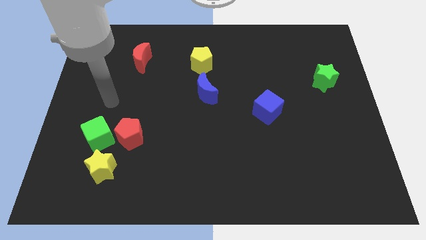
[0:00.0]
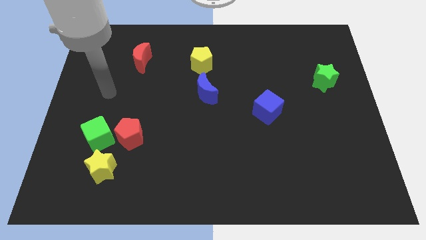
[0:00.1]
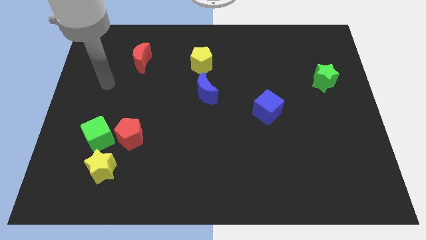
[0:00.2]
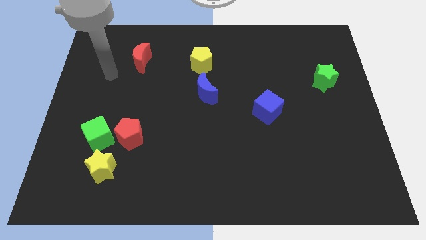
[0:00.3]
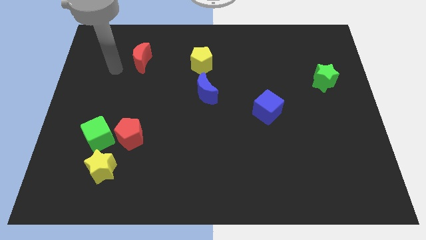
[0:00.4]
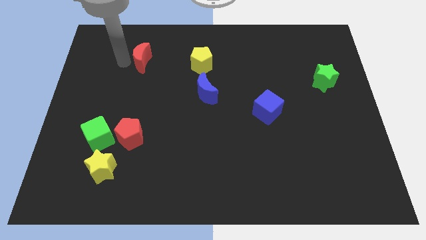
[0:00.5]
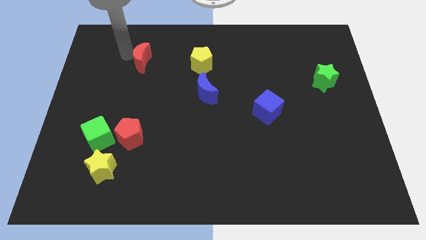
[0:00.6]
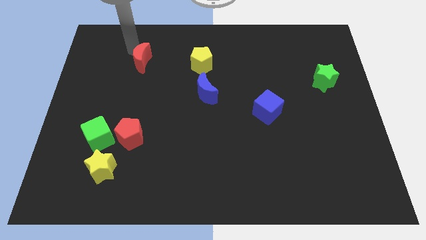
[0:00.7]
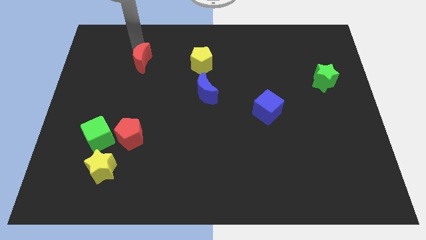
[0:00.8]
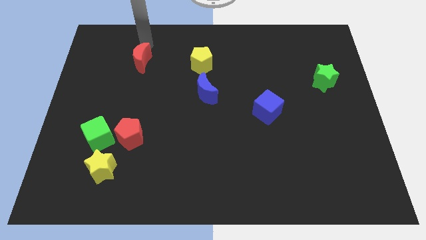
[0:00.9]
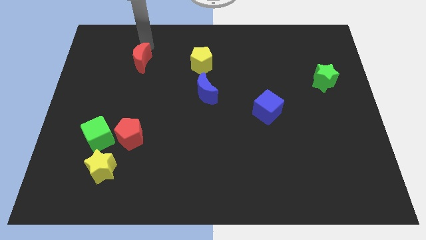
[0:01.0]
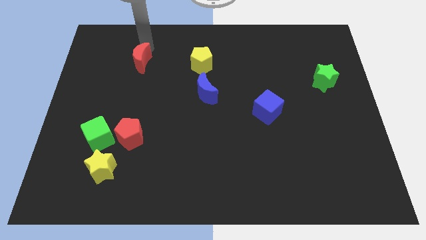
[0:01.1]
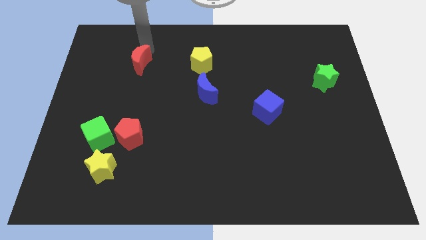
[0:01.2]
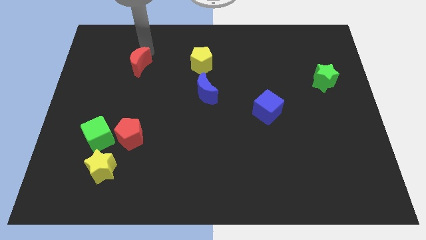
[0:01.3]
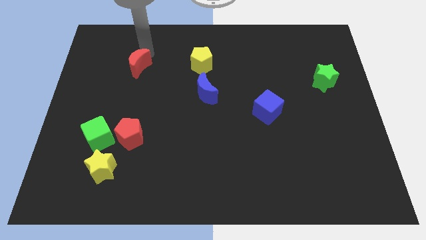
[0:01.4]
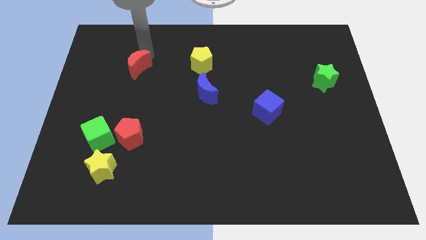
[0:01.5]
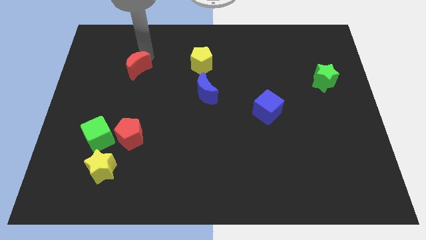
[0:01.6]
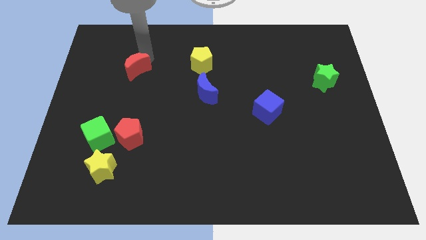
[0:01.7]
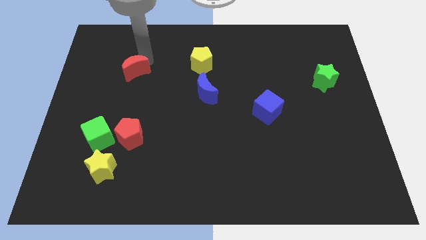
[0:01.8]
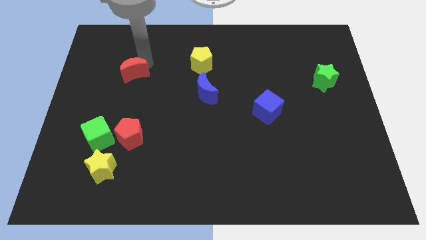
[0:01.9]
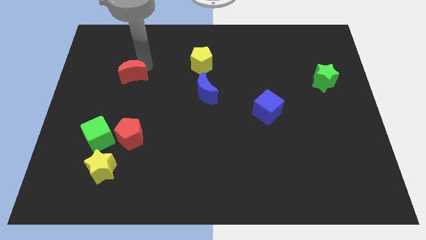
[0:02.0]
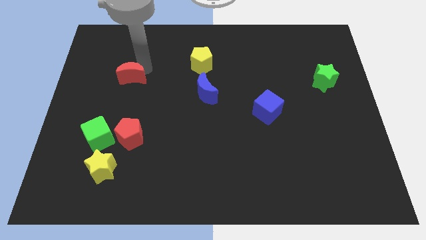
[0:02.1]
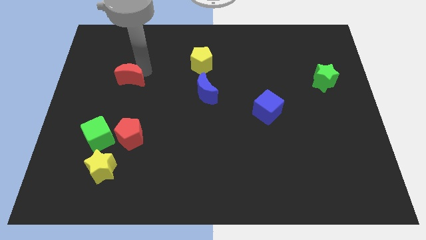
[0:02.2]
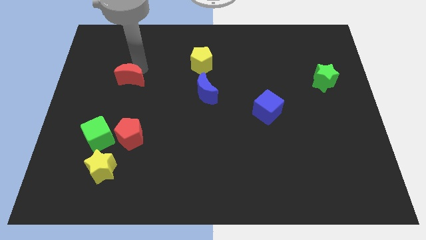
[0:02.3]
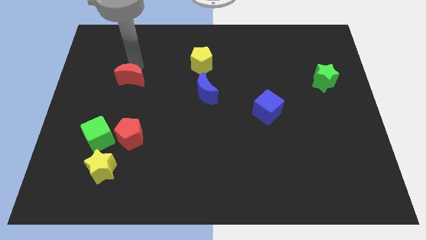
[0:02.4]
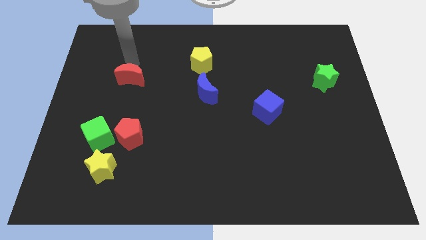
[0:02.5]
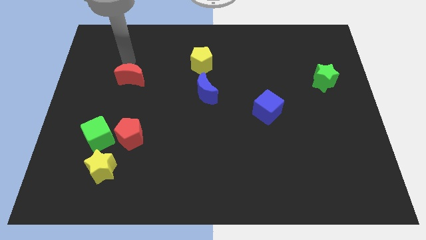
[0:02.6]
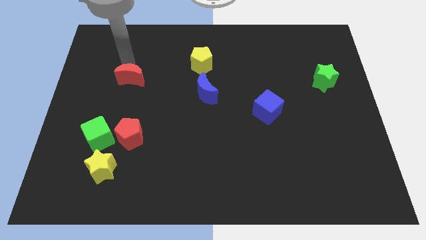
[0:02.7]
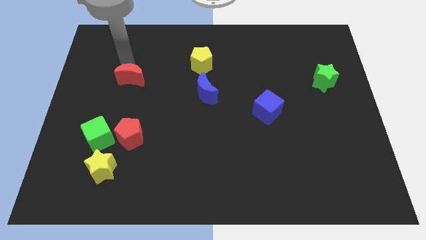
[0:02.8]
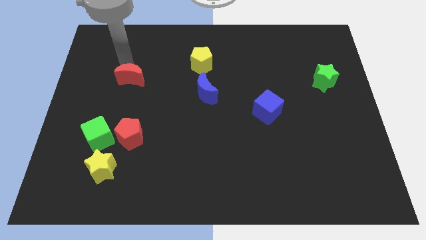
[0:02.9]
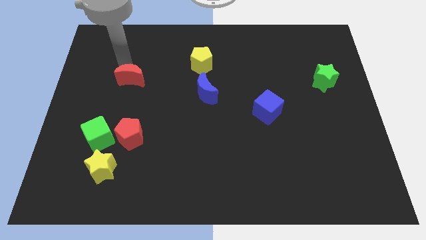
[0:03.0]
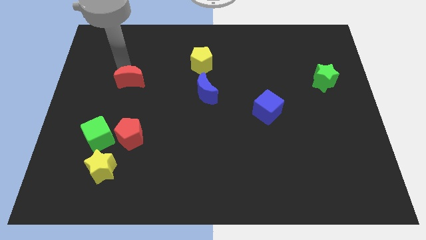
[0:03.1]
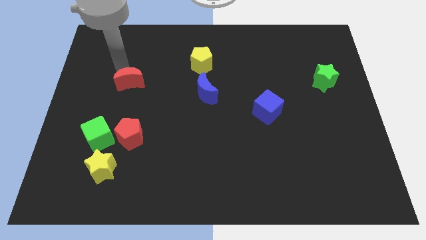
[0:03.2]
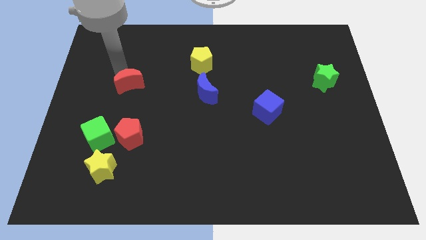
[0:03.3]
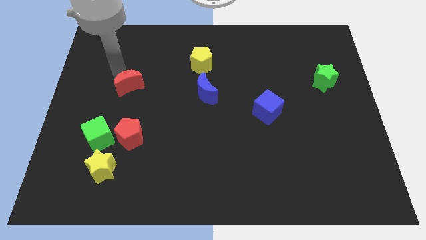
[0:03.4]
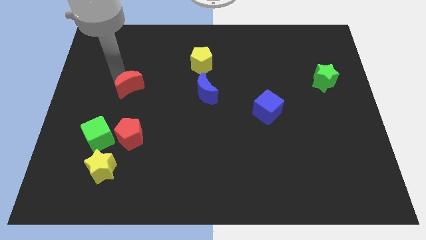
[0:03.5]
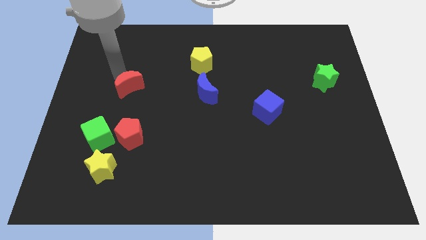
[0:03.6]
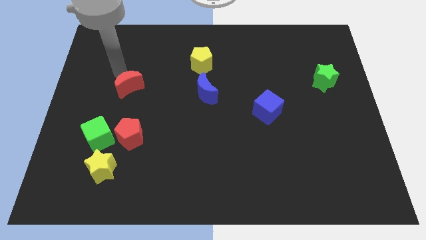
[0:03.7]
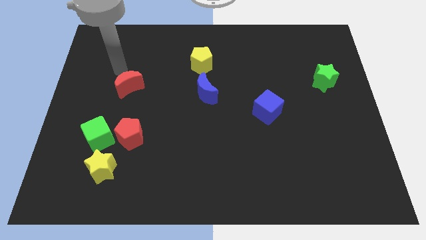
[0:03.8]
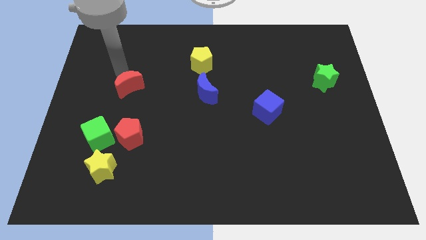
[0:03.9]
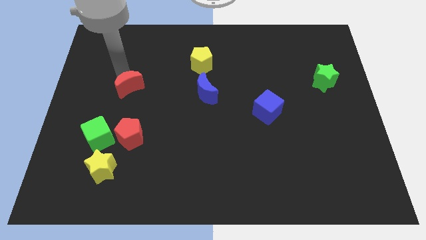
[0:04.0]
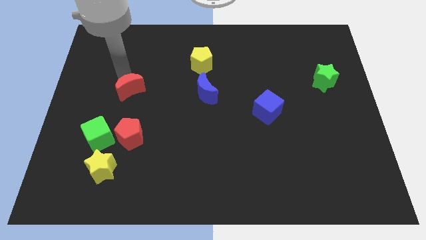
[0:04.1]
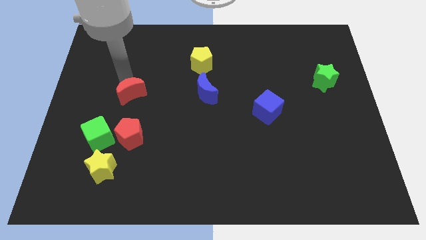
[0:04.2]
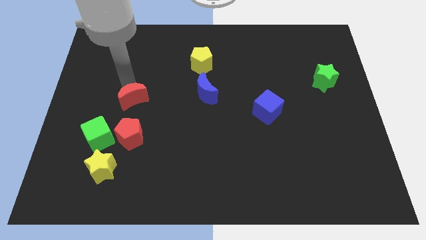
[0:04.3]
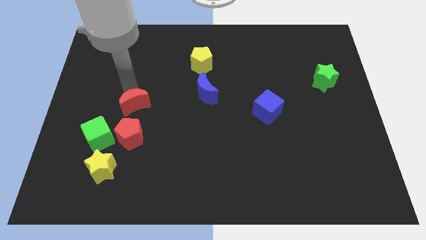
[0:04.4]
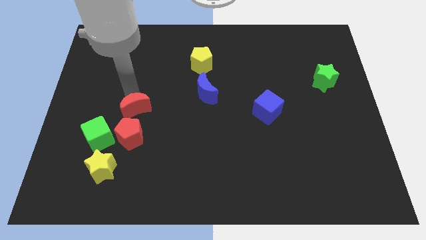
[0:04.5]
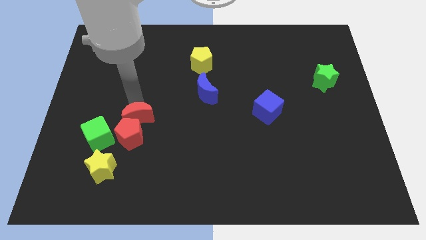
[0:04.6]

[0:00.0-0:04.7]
put the red moon to the red pentagon

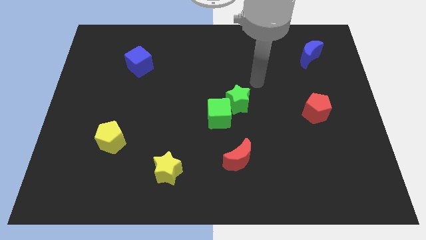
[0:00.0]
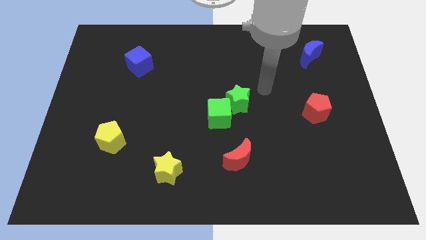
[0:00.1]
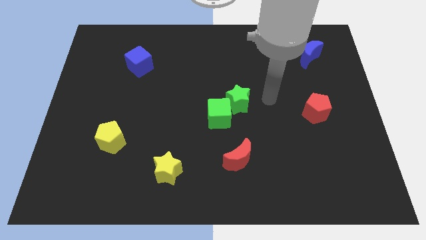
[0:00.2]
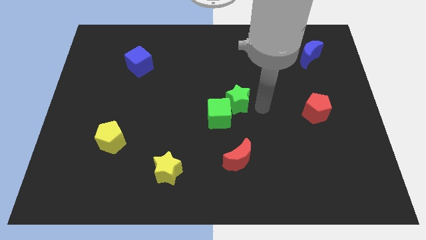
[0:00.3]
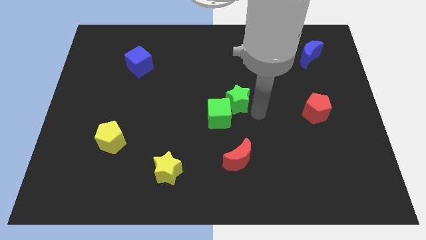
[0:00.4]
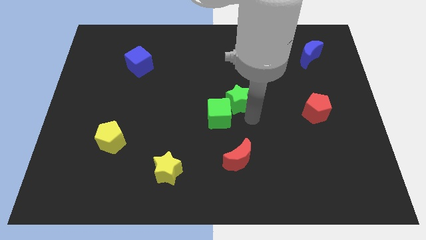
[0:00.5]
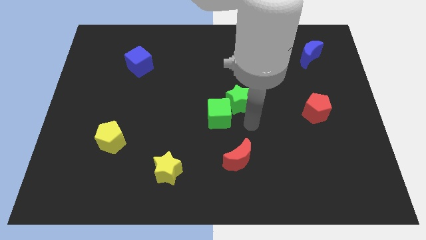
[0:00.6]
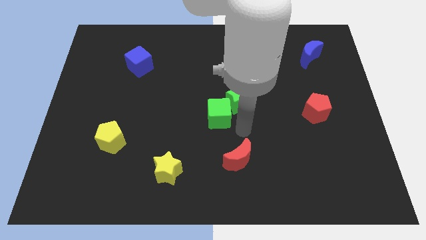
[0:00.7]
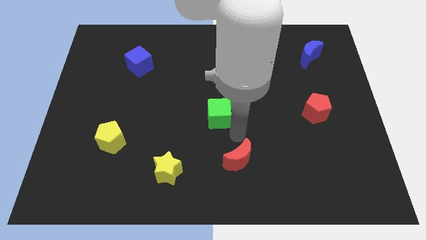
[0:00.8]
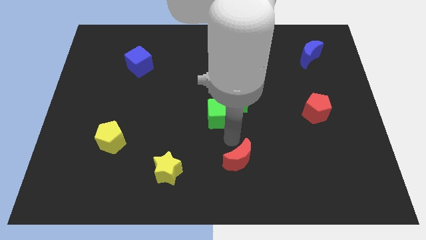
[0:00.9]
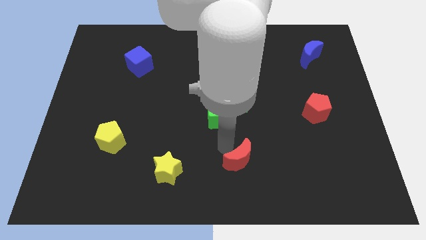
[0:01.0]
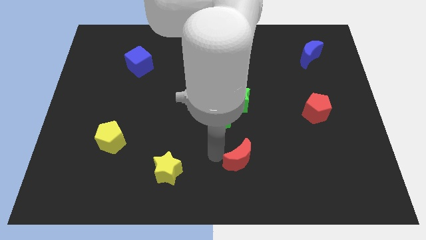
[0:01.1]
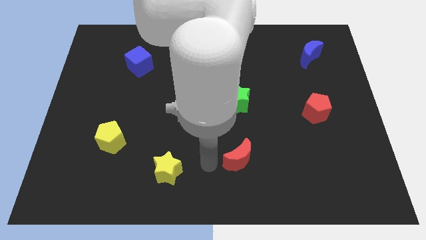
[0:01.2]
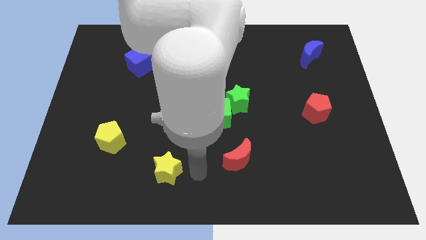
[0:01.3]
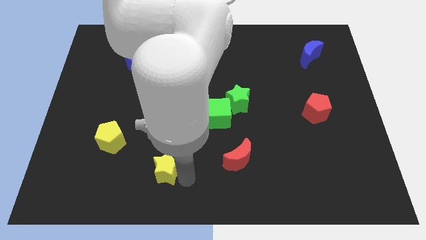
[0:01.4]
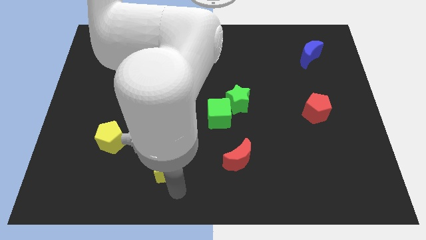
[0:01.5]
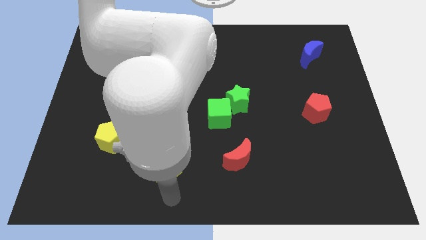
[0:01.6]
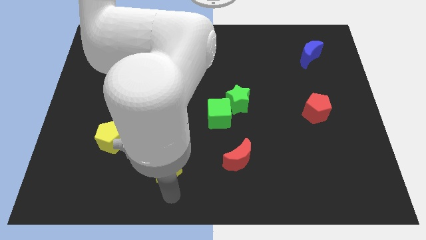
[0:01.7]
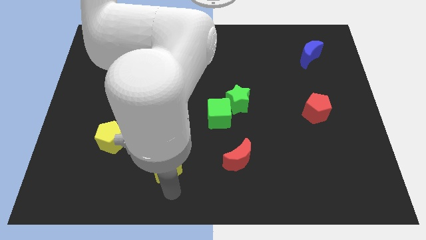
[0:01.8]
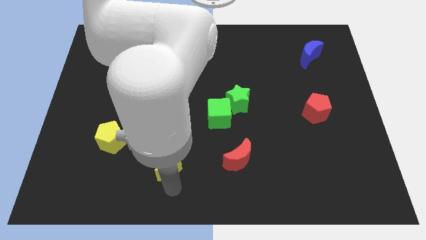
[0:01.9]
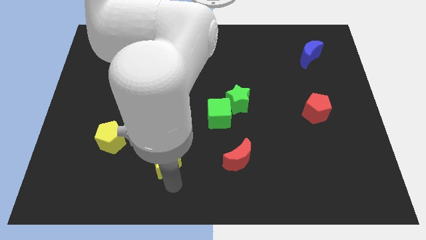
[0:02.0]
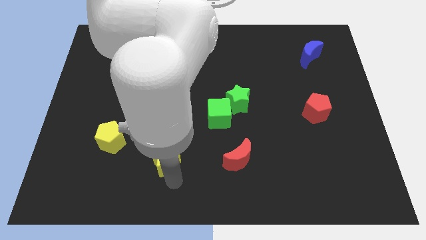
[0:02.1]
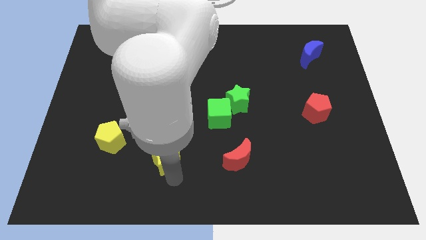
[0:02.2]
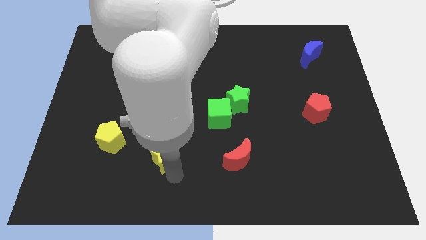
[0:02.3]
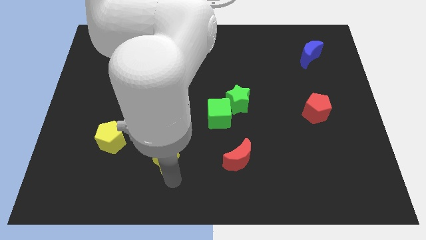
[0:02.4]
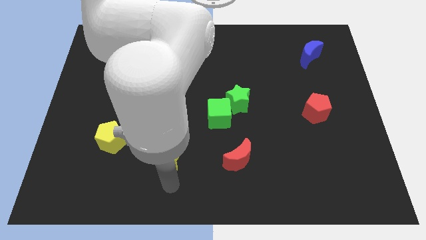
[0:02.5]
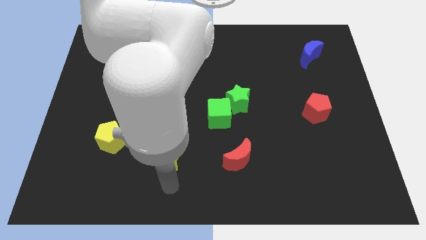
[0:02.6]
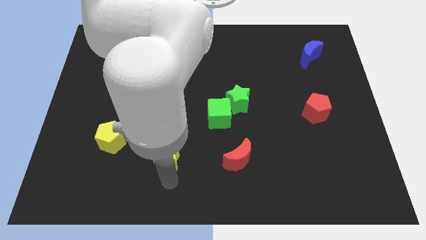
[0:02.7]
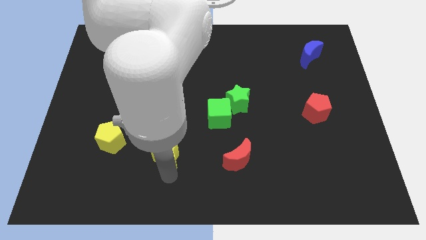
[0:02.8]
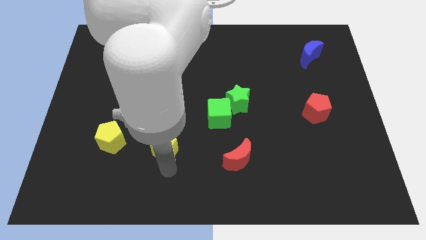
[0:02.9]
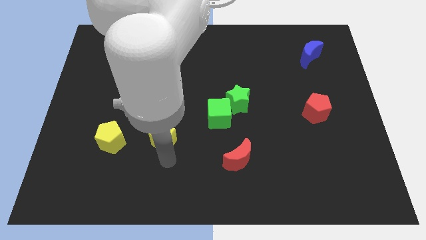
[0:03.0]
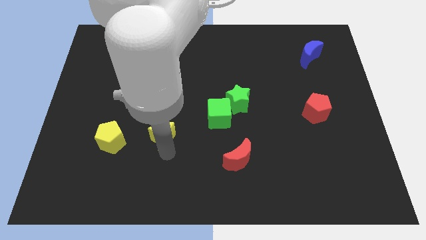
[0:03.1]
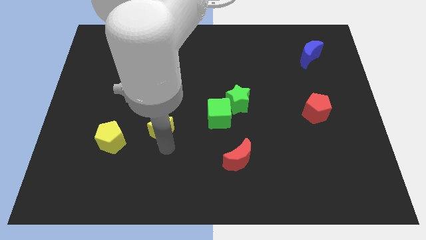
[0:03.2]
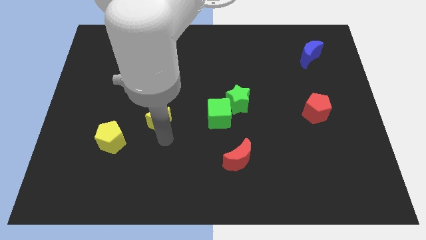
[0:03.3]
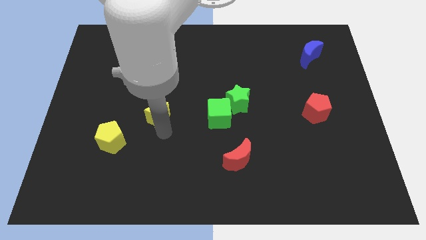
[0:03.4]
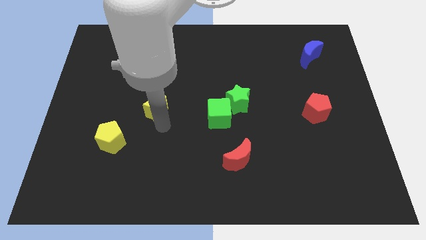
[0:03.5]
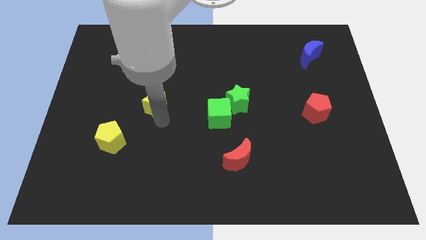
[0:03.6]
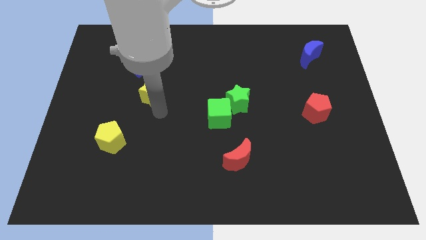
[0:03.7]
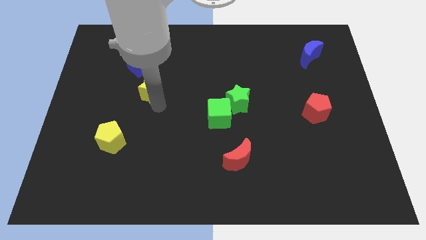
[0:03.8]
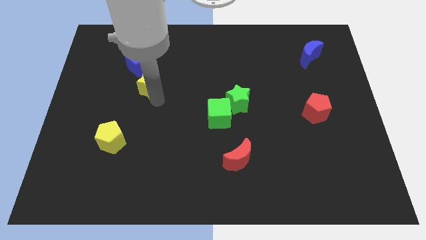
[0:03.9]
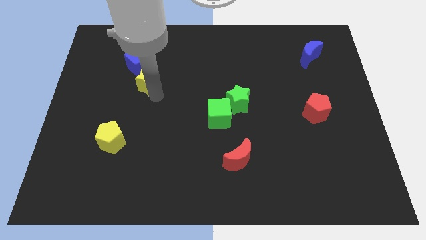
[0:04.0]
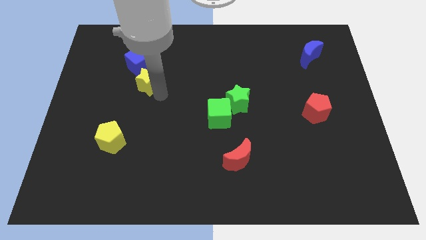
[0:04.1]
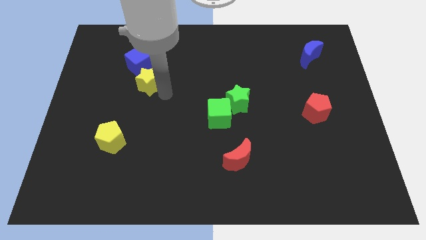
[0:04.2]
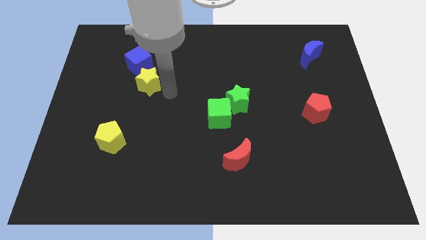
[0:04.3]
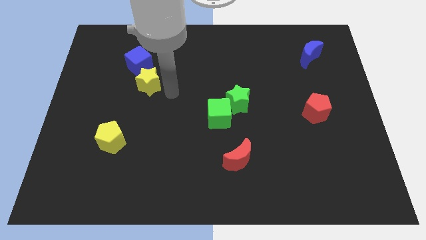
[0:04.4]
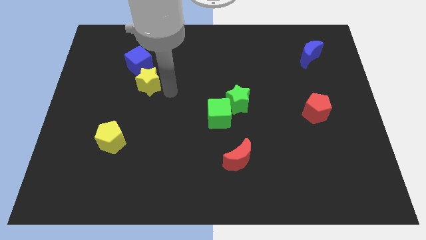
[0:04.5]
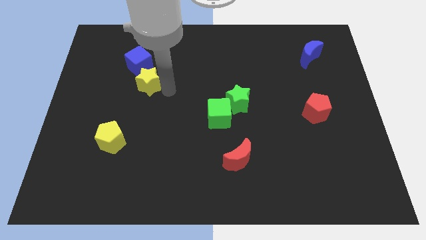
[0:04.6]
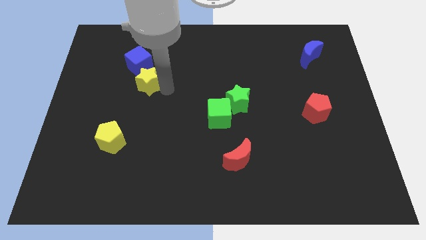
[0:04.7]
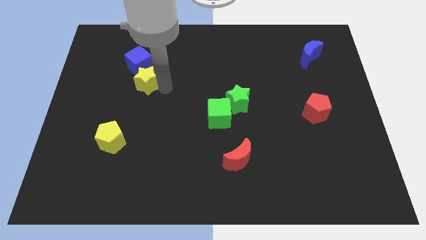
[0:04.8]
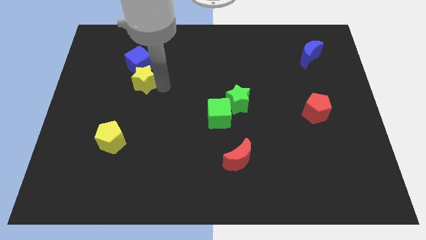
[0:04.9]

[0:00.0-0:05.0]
push the yellow star next to the blue cube
